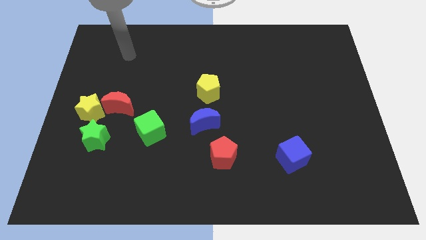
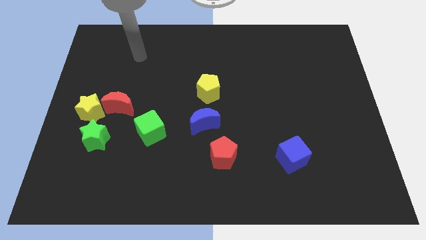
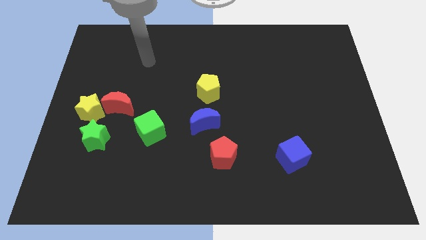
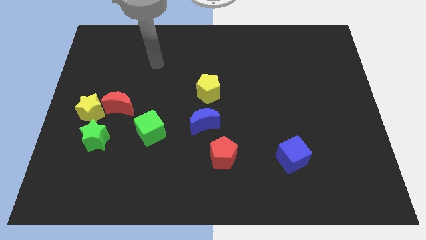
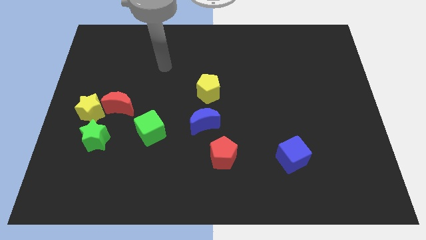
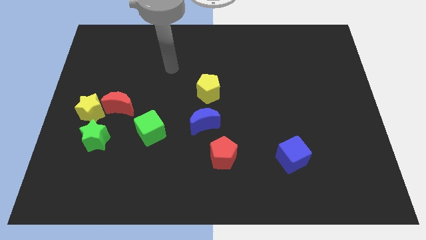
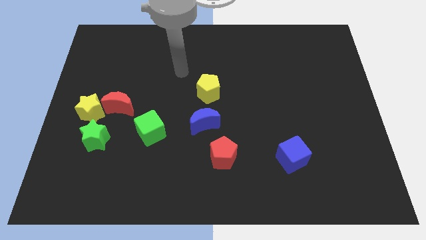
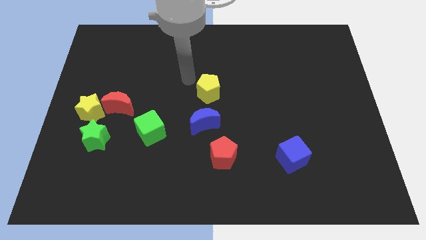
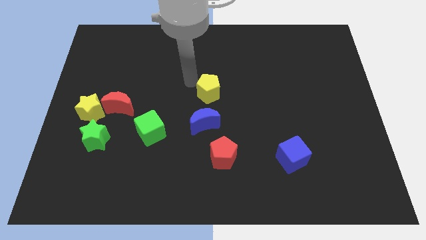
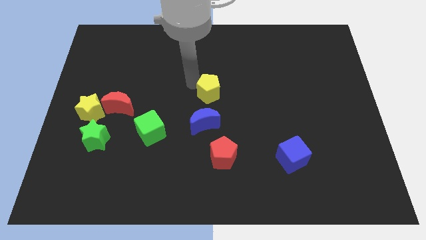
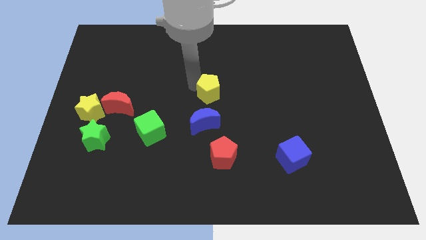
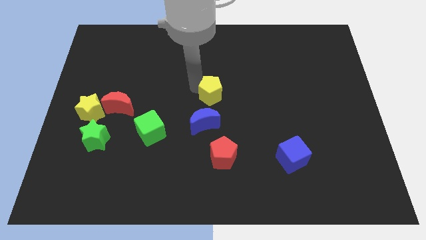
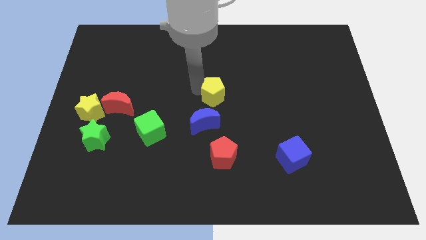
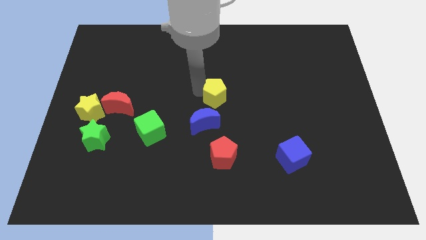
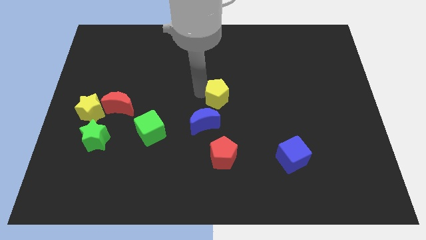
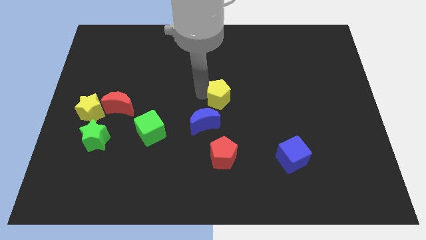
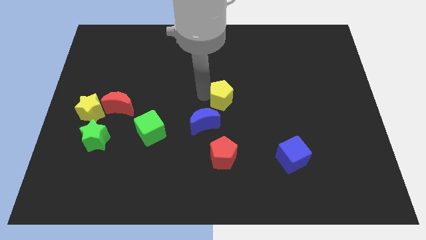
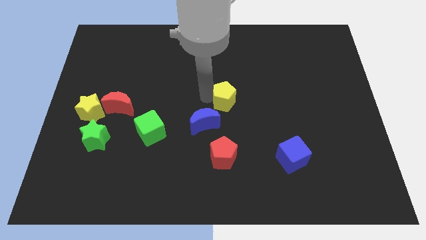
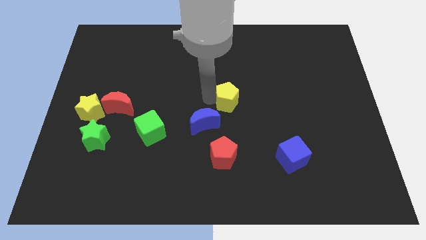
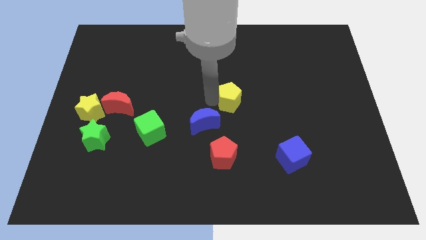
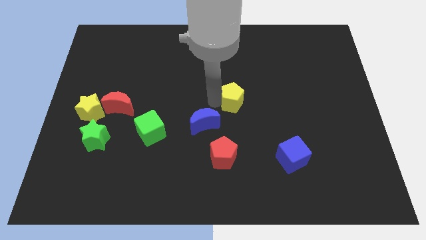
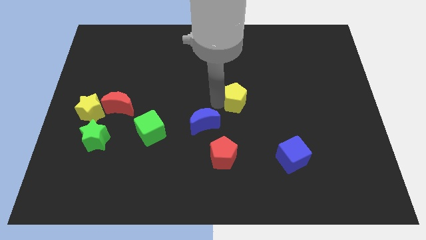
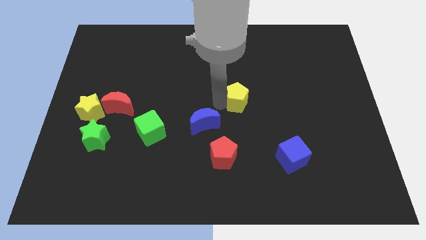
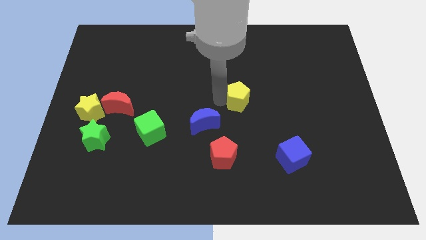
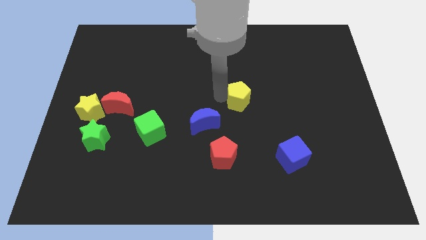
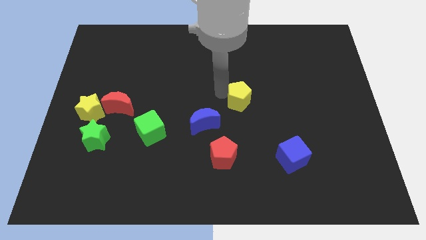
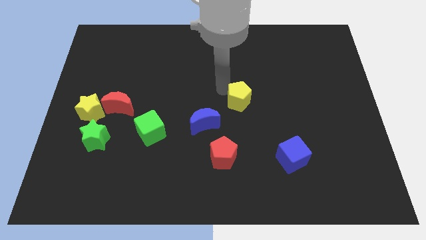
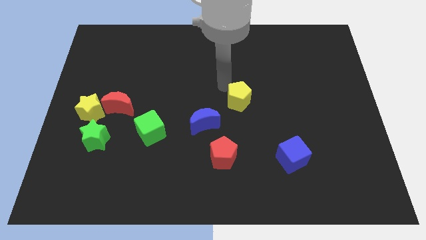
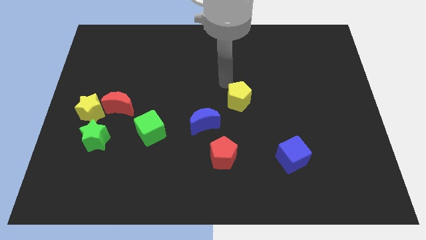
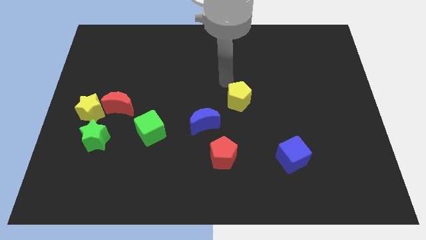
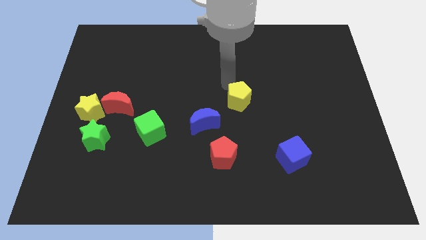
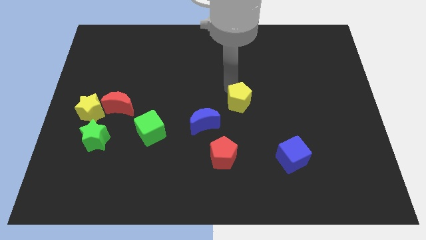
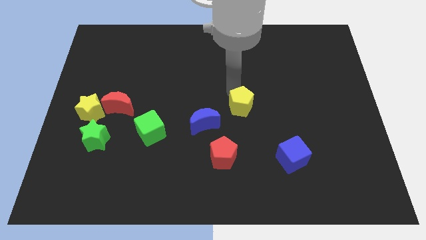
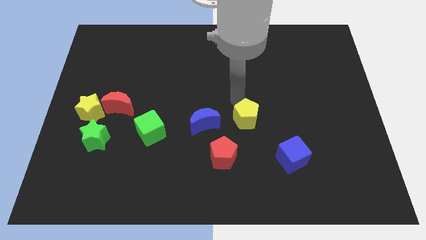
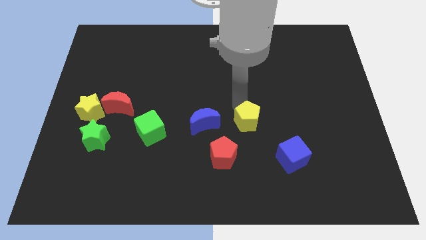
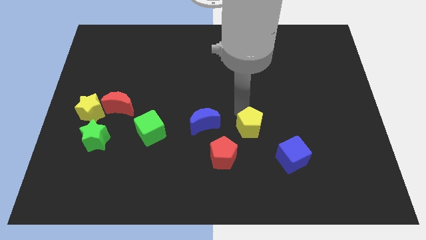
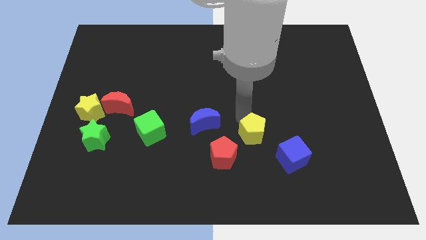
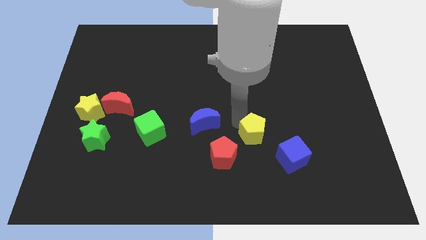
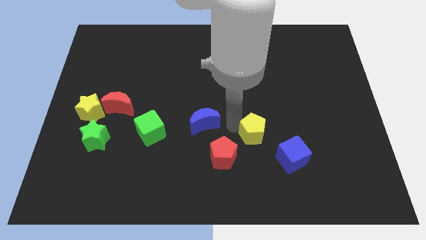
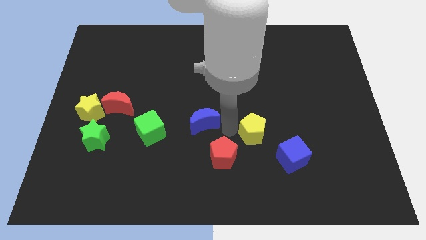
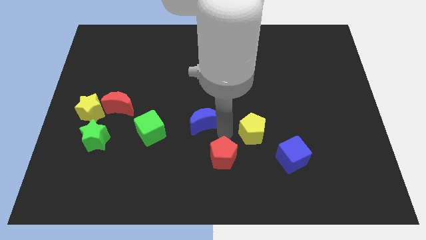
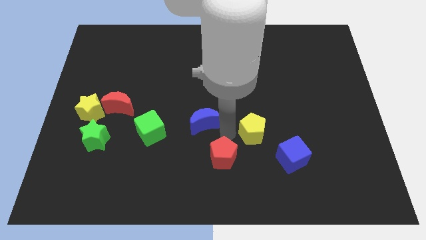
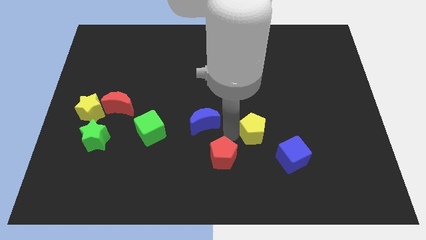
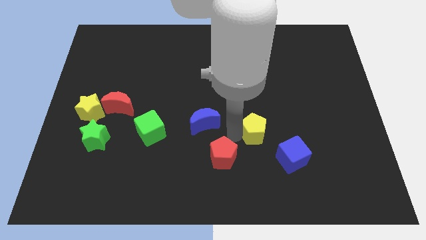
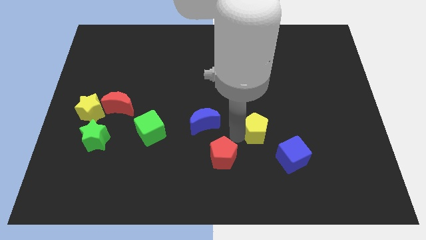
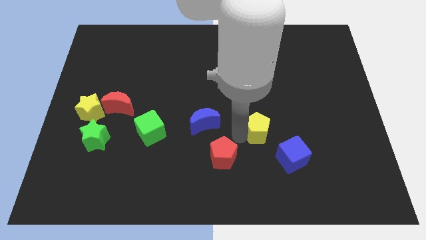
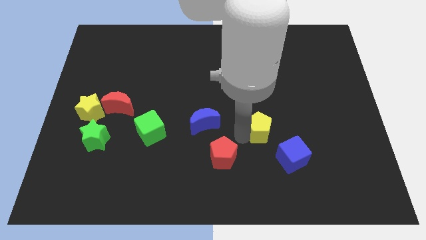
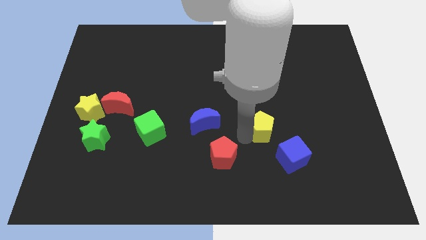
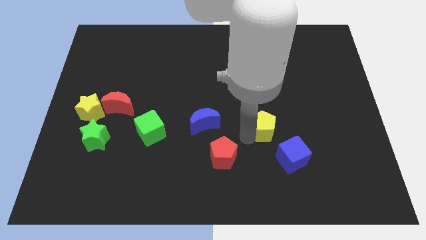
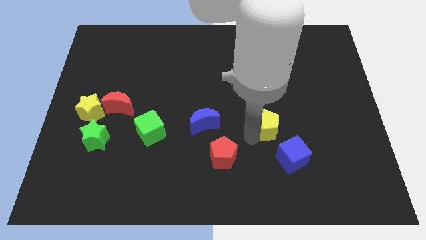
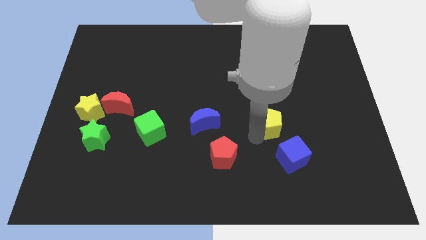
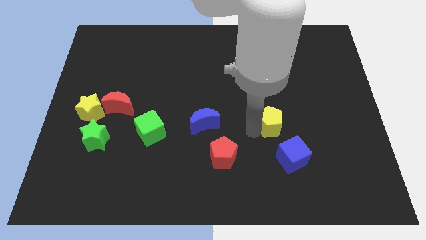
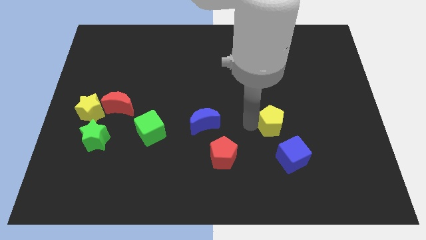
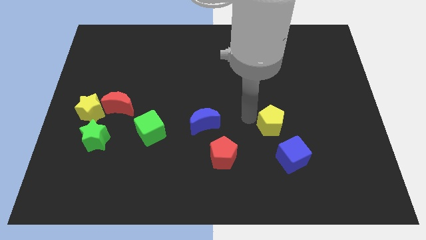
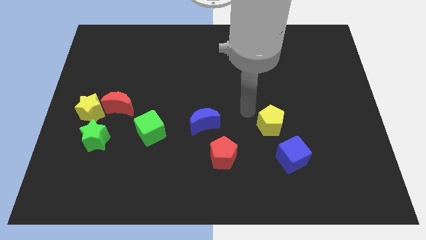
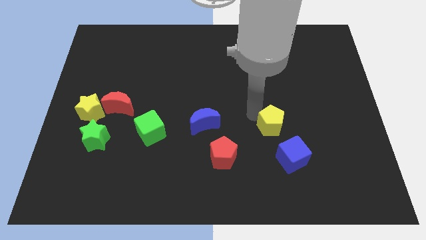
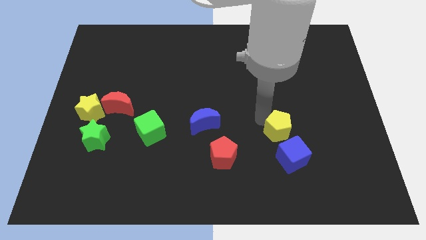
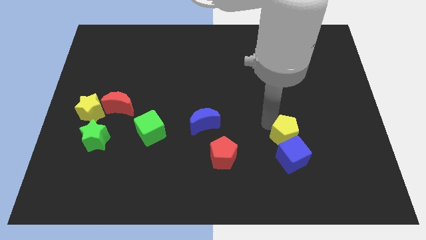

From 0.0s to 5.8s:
move the yellow pentagon diagonally down and right

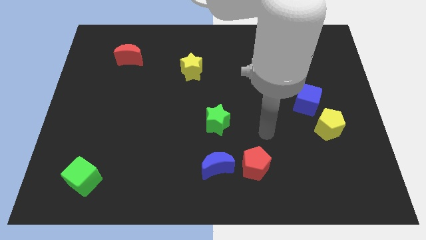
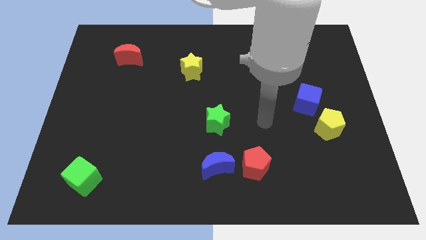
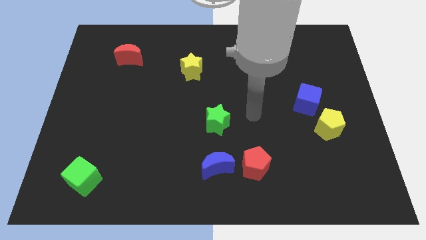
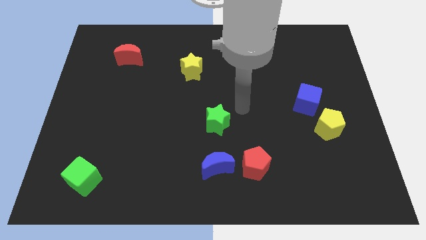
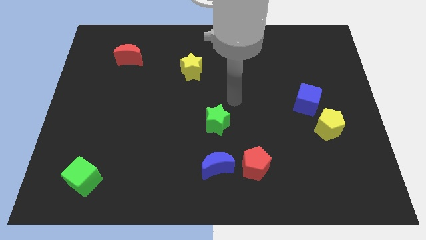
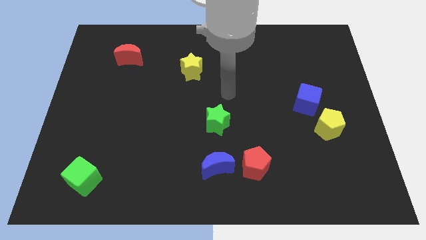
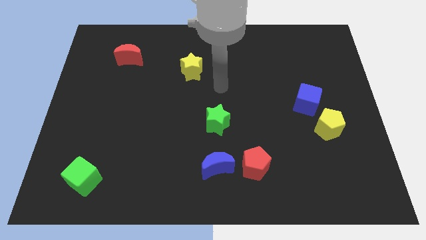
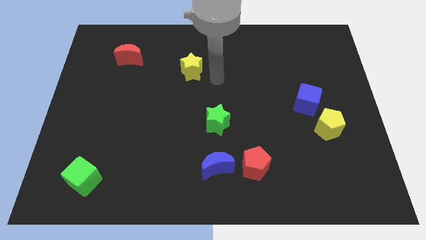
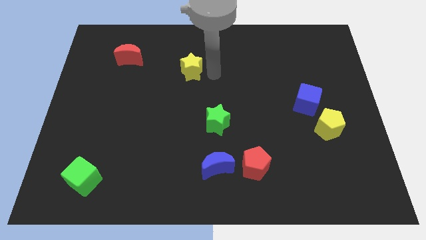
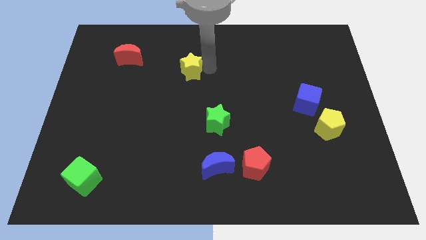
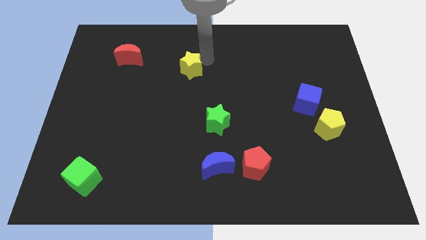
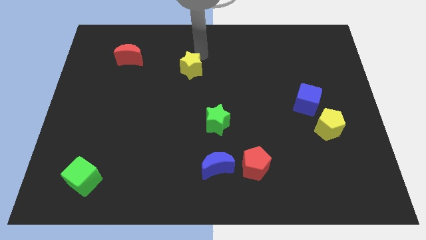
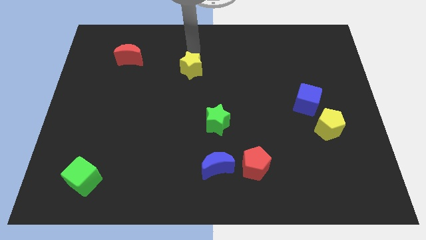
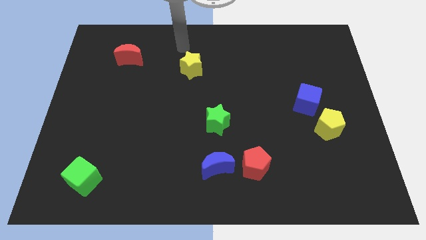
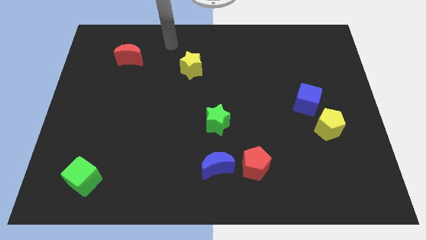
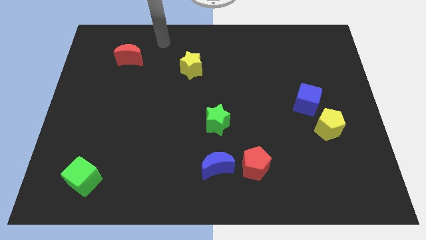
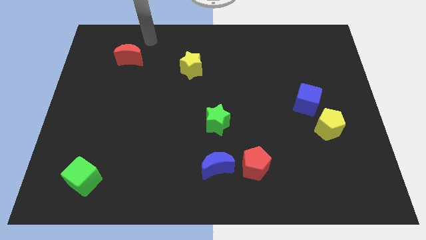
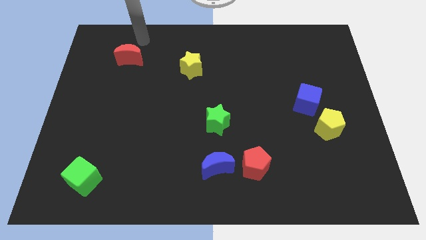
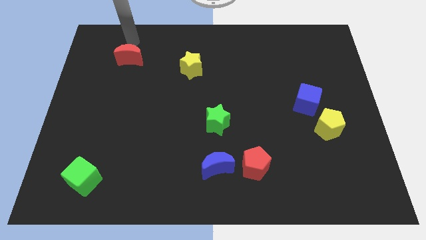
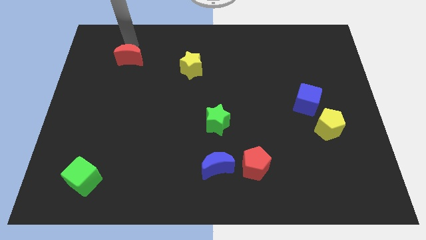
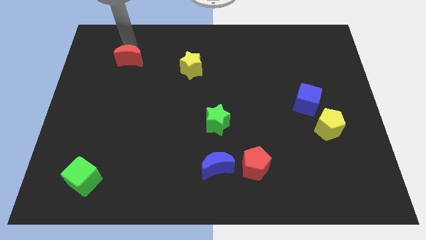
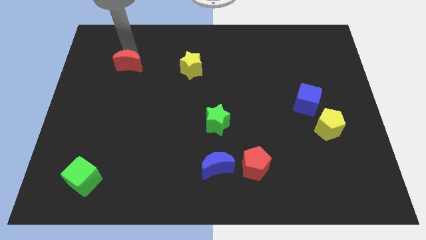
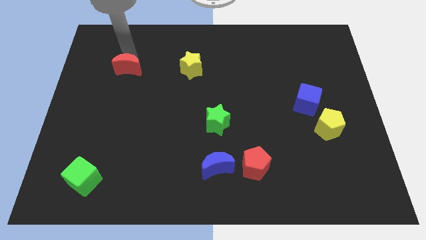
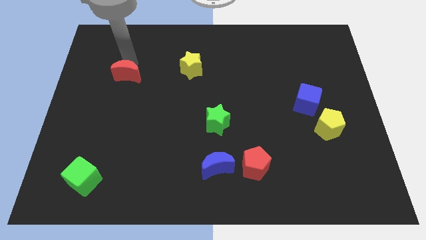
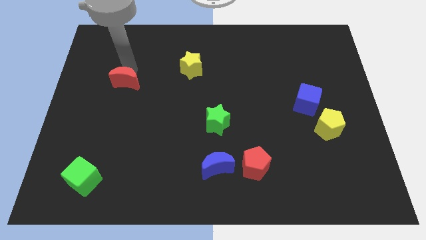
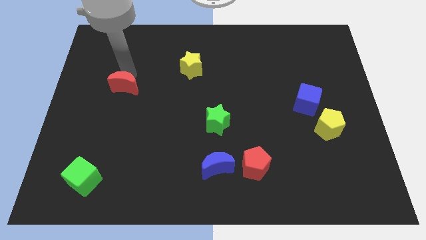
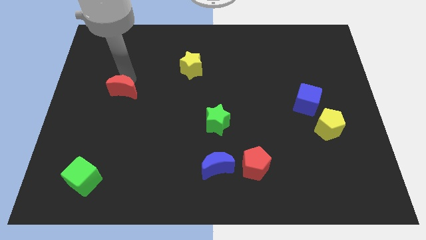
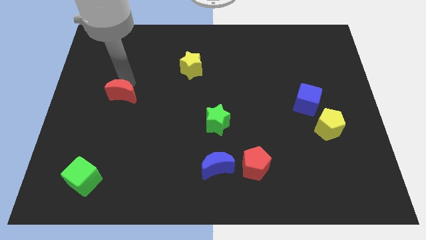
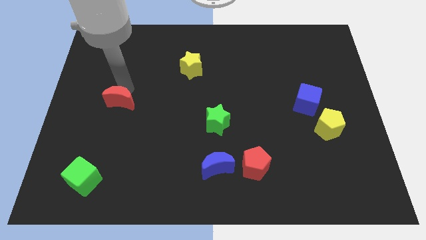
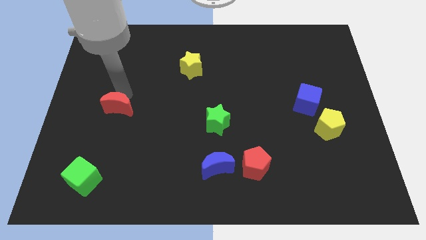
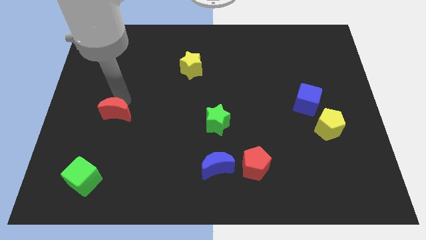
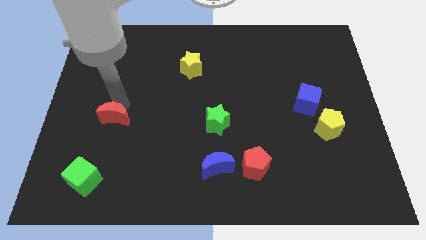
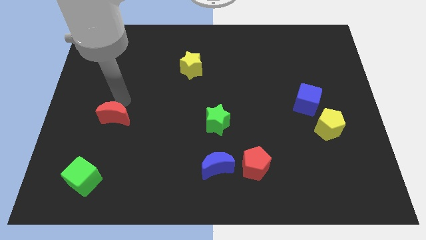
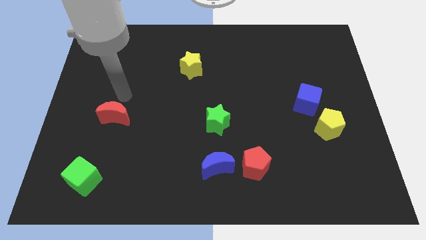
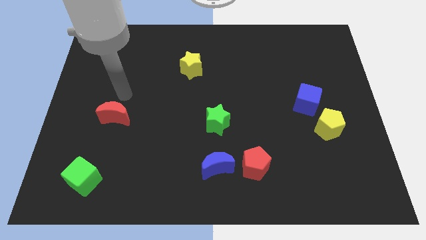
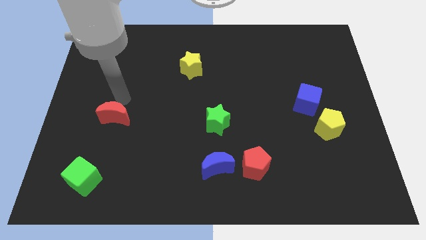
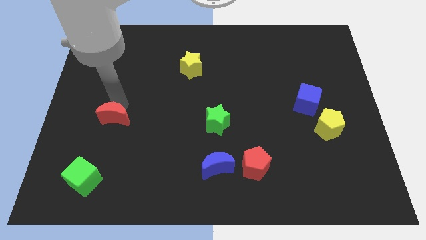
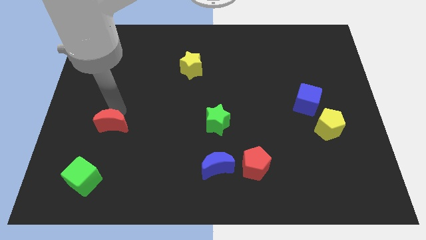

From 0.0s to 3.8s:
slide the red moon down
